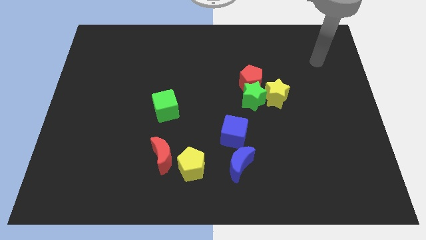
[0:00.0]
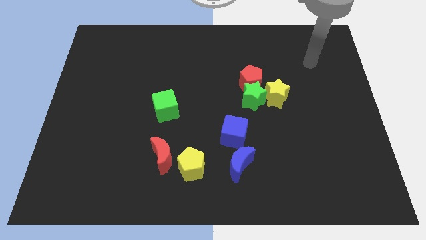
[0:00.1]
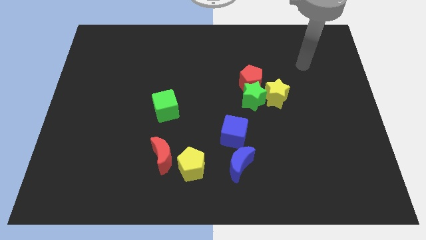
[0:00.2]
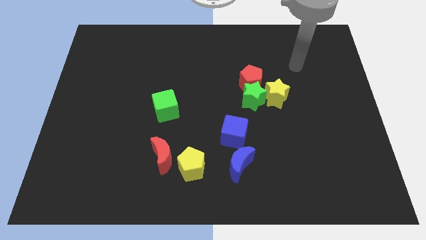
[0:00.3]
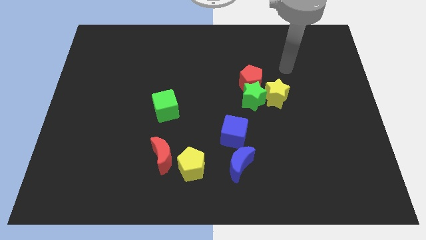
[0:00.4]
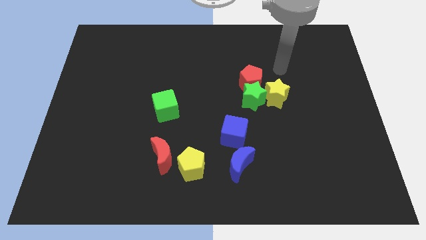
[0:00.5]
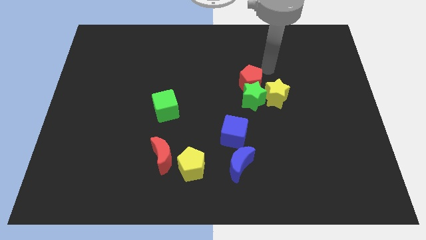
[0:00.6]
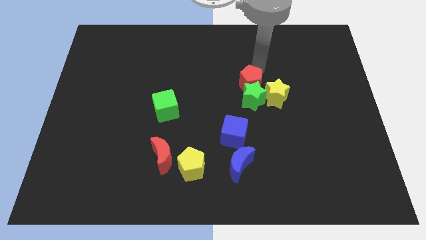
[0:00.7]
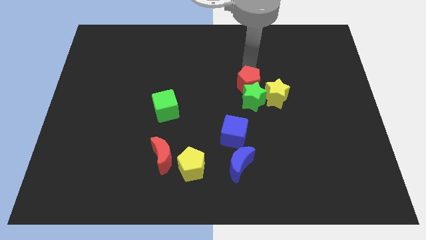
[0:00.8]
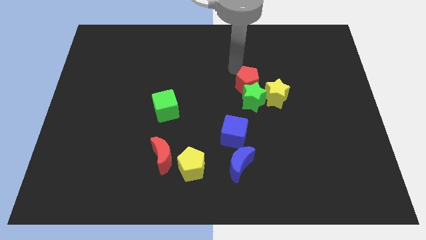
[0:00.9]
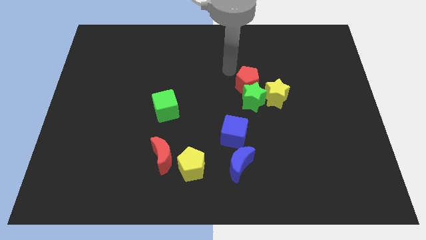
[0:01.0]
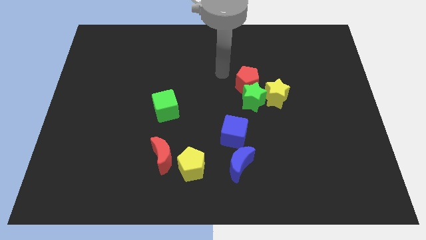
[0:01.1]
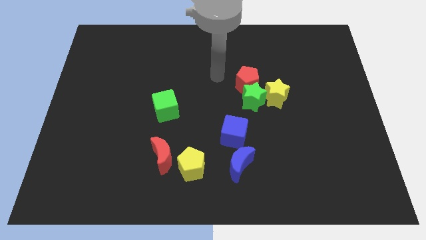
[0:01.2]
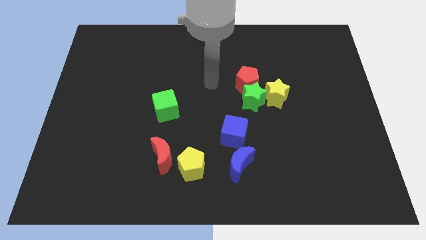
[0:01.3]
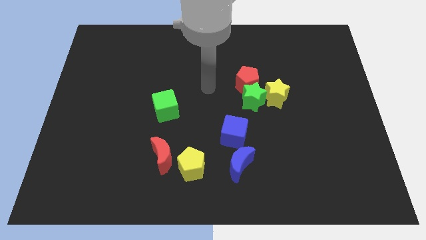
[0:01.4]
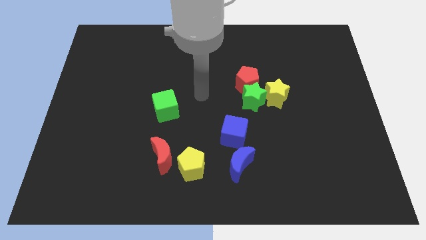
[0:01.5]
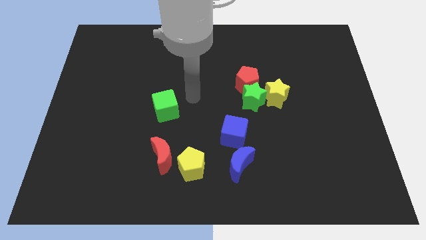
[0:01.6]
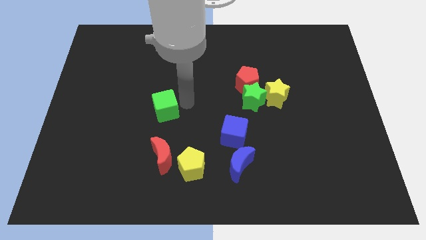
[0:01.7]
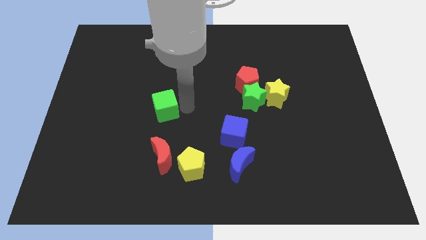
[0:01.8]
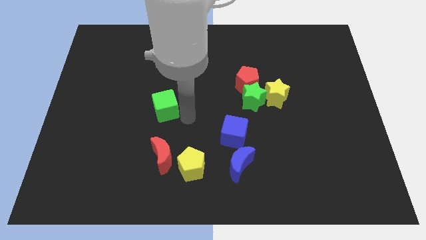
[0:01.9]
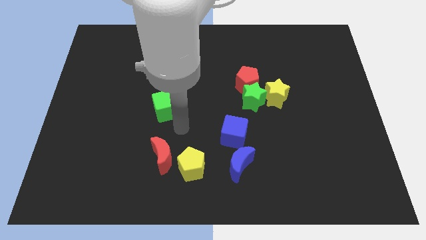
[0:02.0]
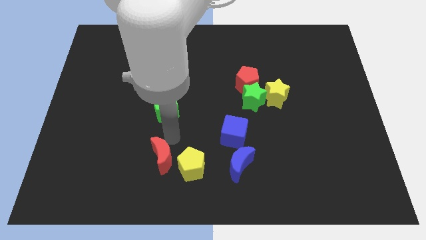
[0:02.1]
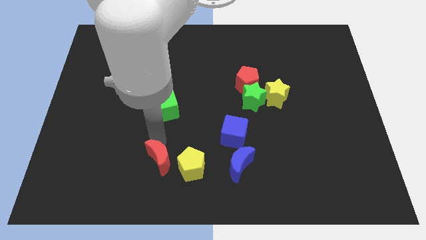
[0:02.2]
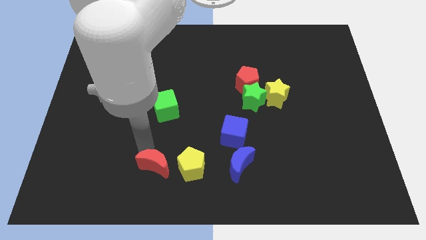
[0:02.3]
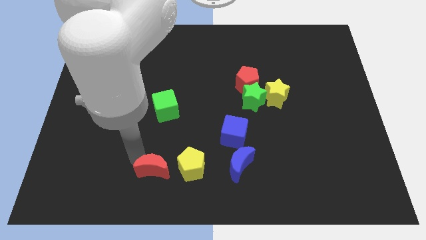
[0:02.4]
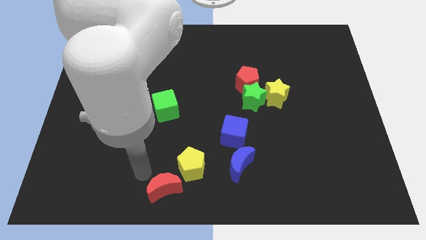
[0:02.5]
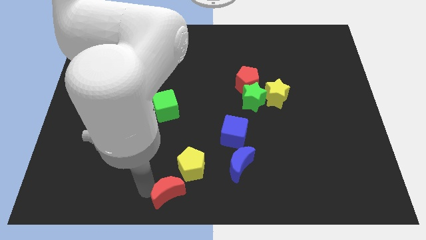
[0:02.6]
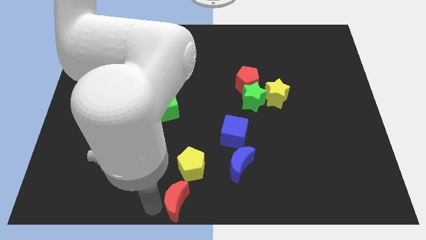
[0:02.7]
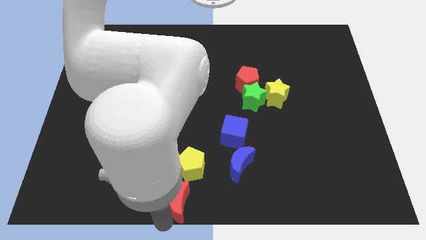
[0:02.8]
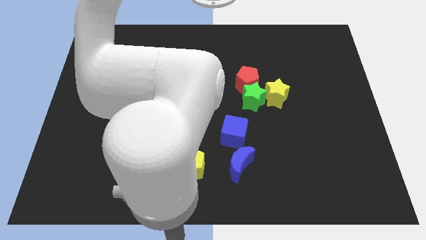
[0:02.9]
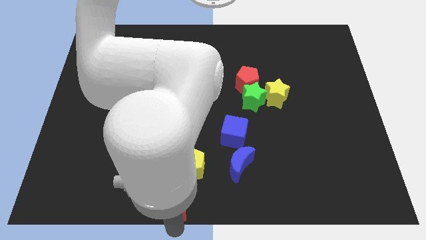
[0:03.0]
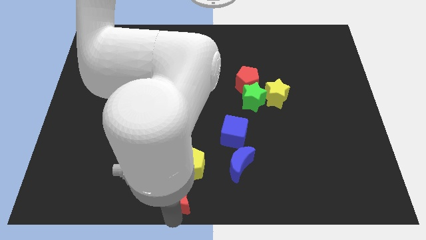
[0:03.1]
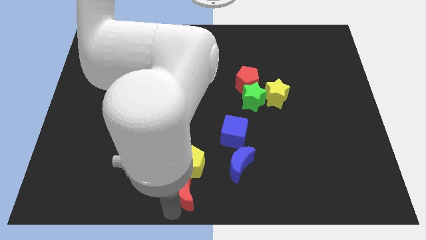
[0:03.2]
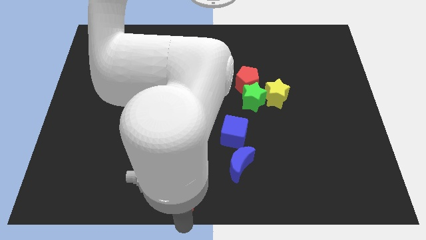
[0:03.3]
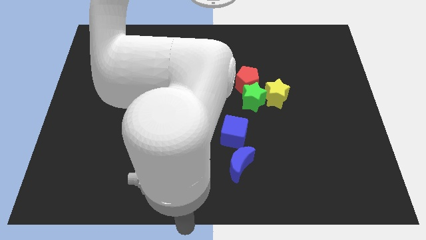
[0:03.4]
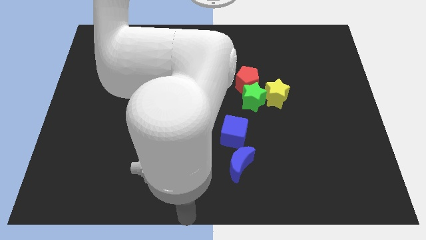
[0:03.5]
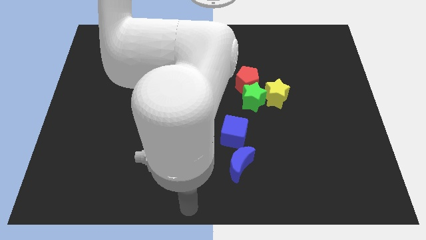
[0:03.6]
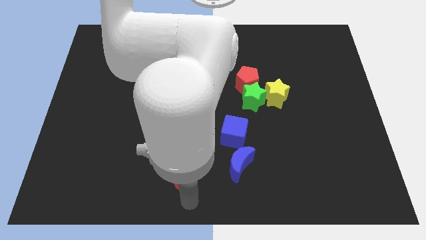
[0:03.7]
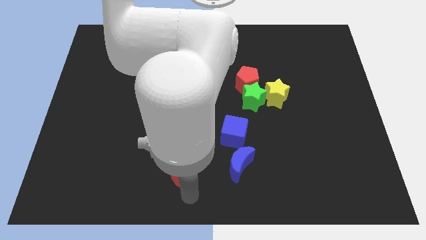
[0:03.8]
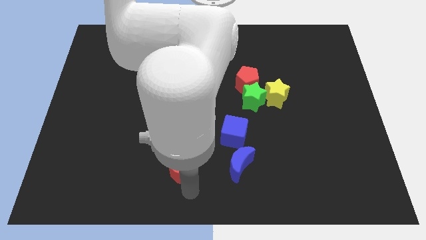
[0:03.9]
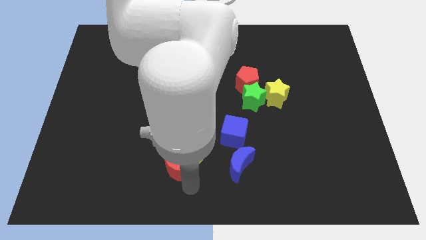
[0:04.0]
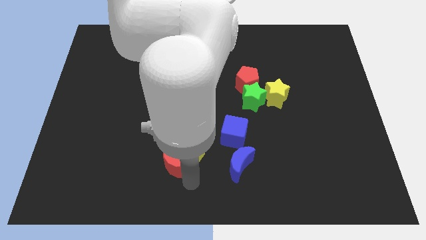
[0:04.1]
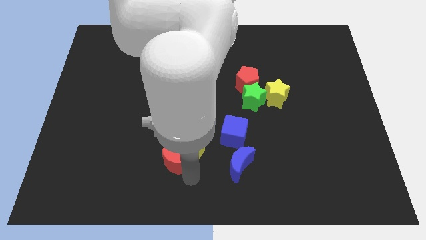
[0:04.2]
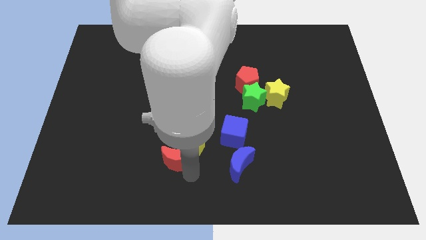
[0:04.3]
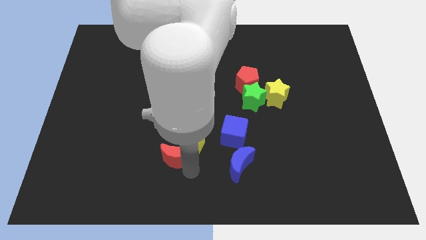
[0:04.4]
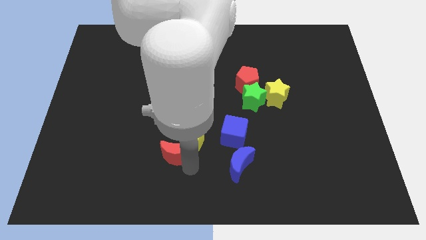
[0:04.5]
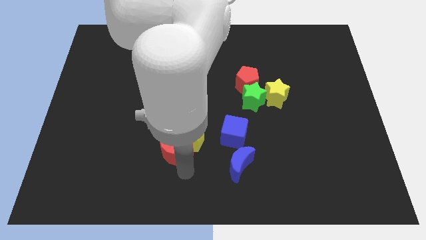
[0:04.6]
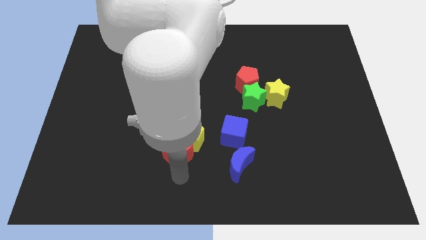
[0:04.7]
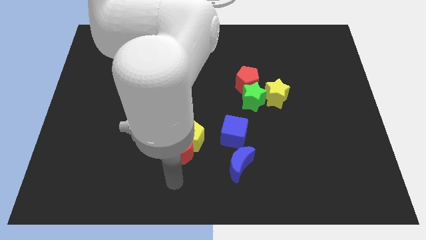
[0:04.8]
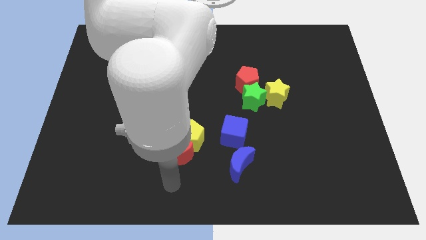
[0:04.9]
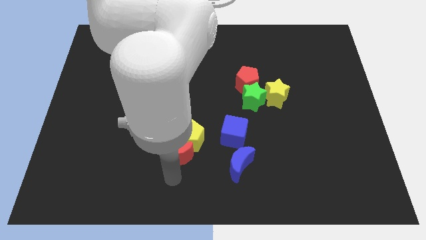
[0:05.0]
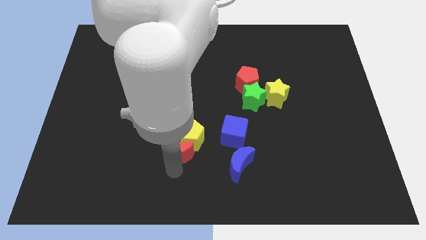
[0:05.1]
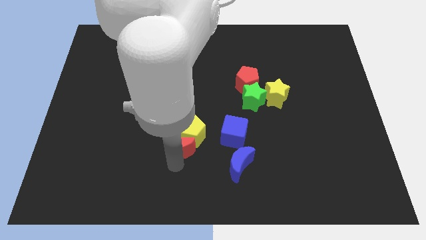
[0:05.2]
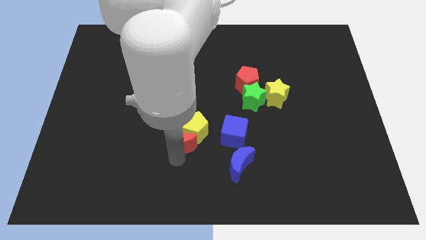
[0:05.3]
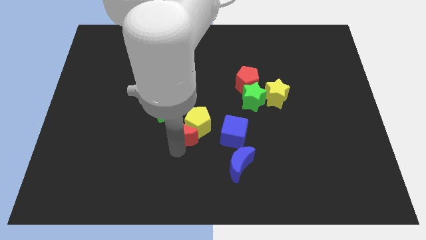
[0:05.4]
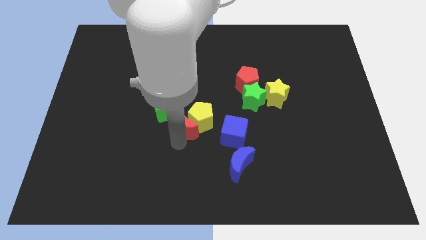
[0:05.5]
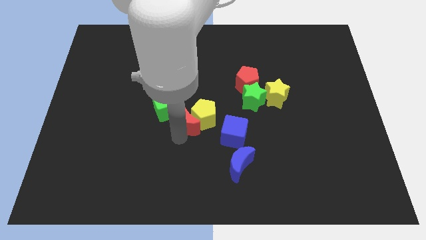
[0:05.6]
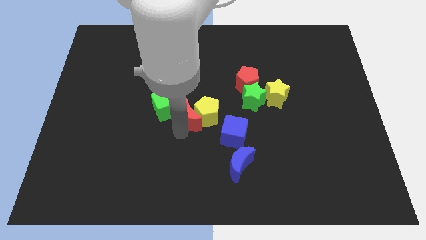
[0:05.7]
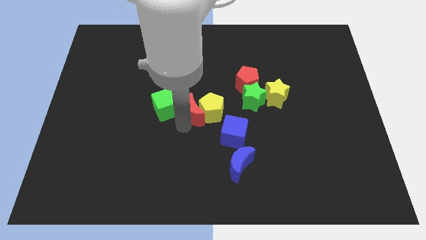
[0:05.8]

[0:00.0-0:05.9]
slide the red moon just left of the green star
